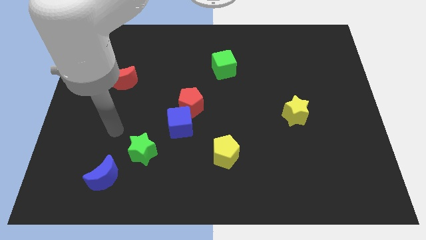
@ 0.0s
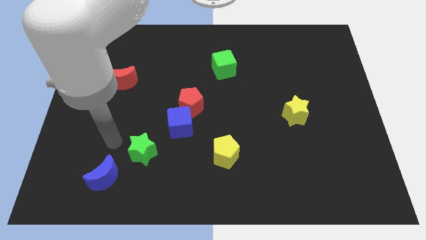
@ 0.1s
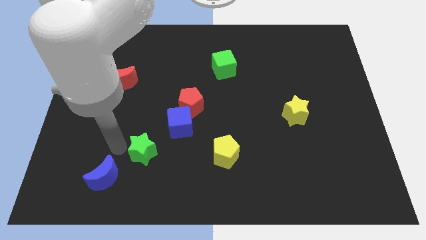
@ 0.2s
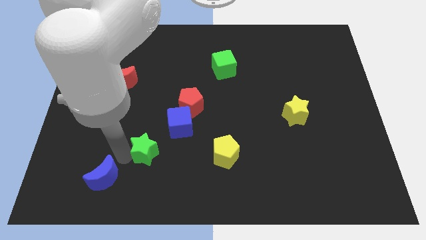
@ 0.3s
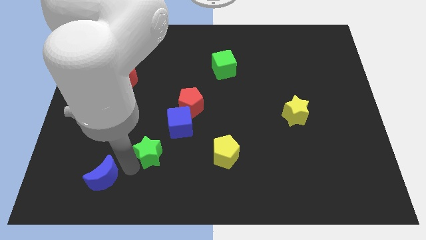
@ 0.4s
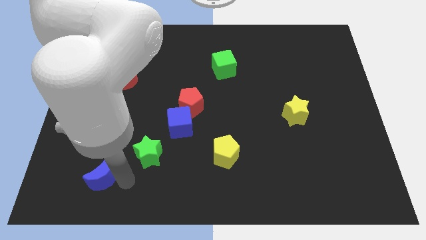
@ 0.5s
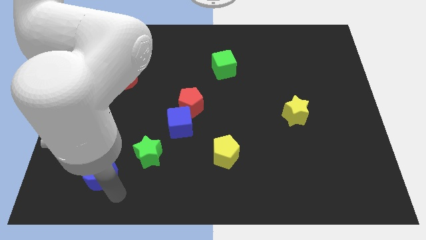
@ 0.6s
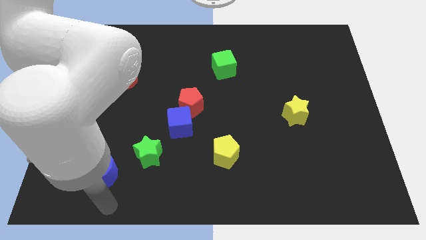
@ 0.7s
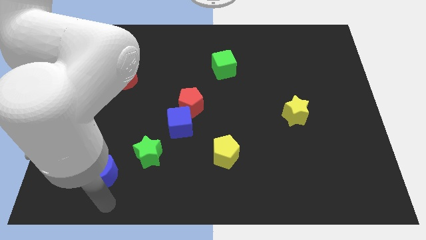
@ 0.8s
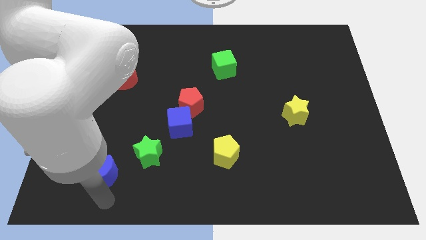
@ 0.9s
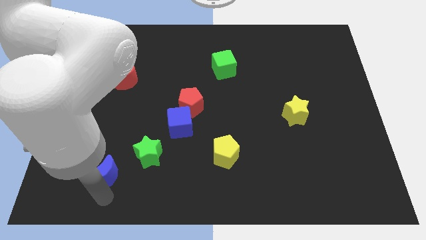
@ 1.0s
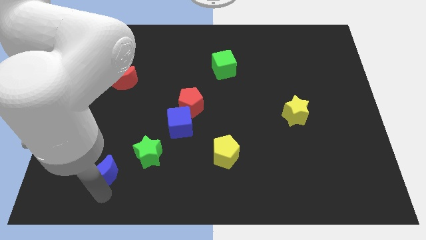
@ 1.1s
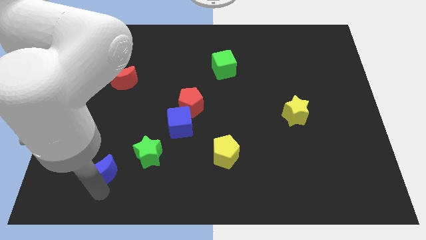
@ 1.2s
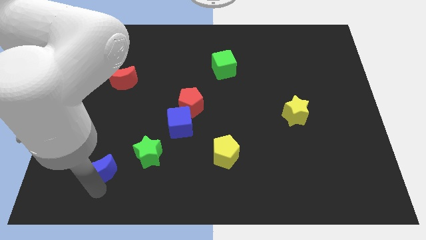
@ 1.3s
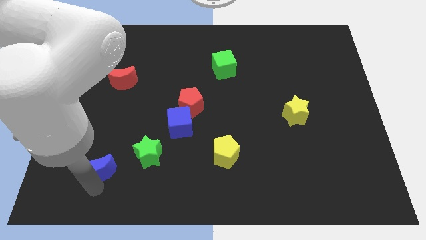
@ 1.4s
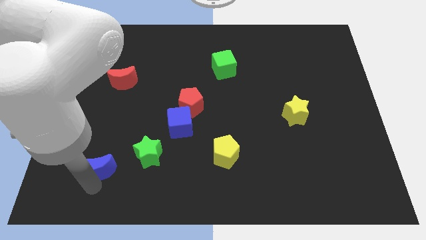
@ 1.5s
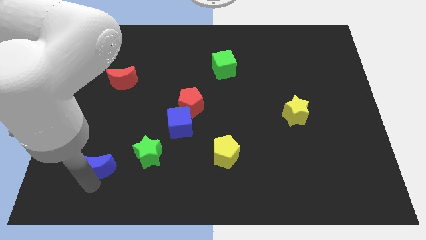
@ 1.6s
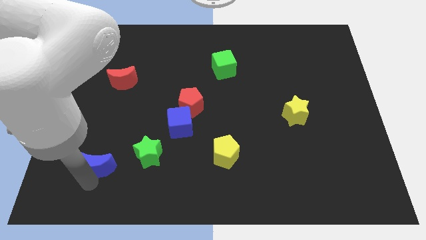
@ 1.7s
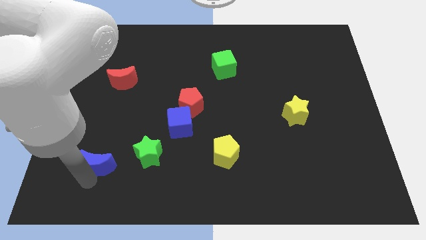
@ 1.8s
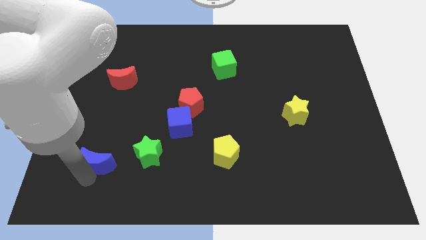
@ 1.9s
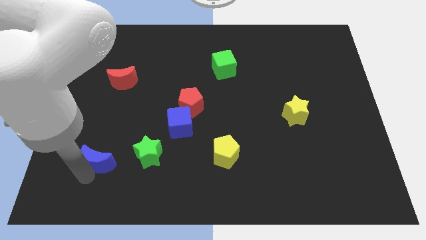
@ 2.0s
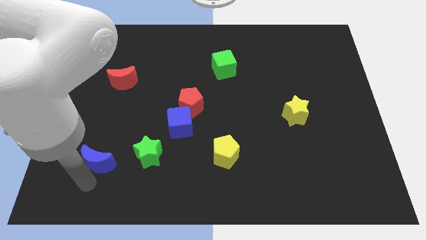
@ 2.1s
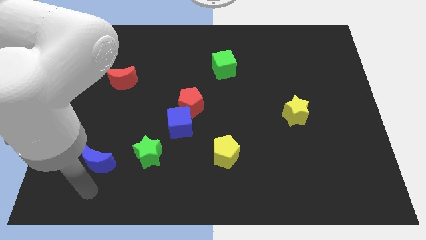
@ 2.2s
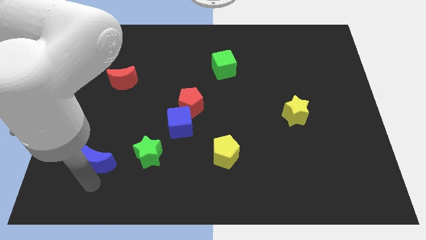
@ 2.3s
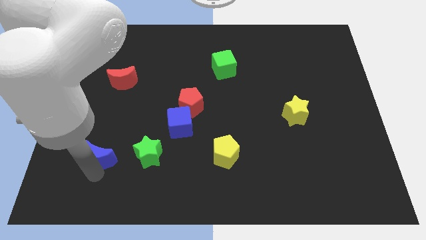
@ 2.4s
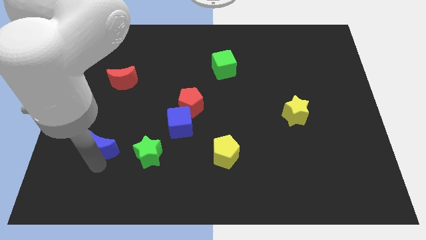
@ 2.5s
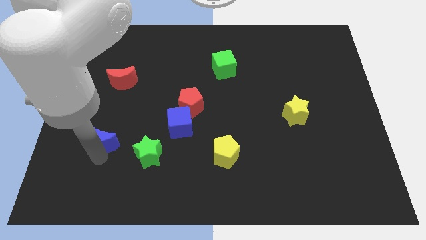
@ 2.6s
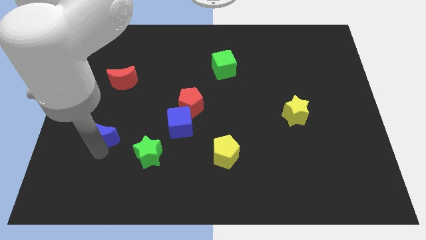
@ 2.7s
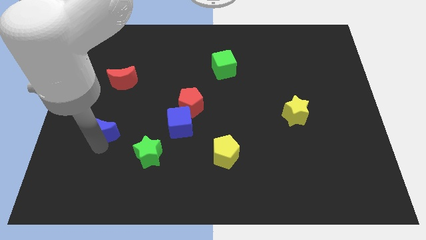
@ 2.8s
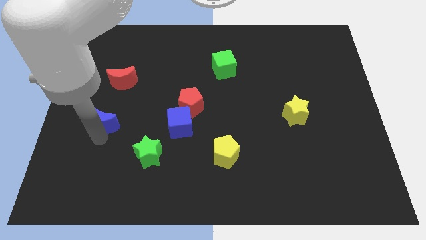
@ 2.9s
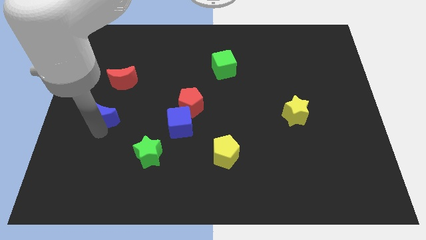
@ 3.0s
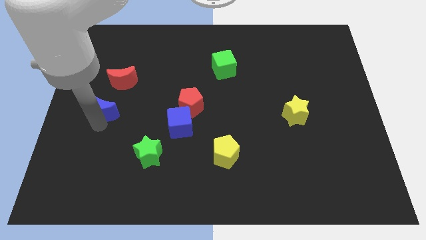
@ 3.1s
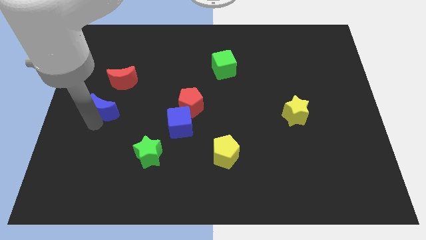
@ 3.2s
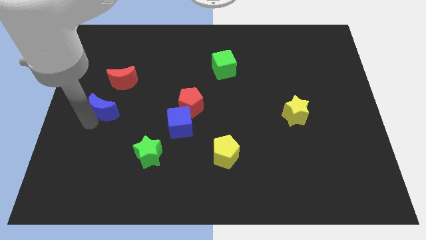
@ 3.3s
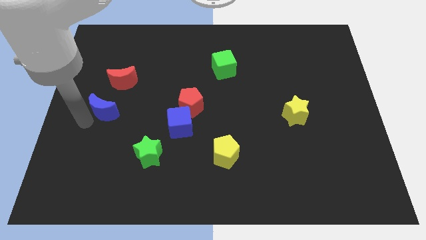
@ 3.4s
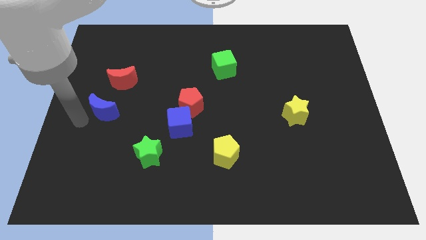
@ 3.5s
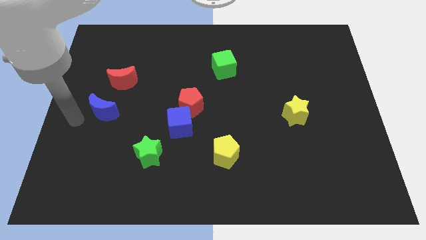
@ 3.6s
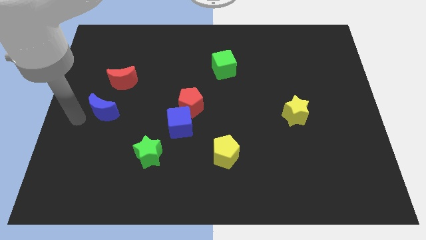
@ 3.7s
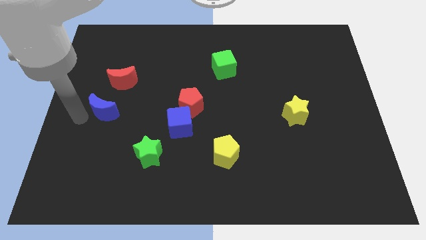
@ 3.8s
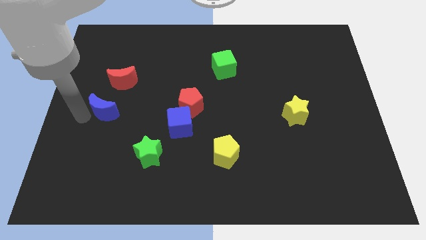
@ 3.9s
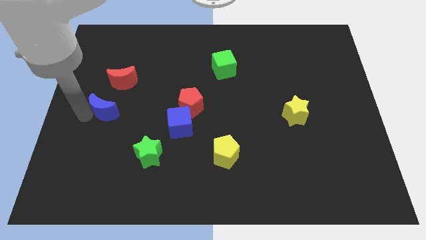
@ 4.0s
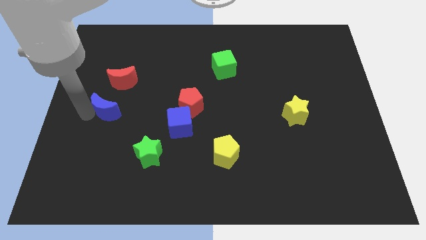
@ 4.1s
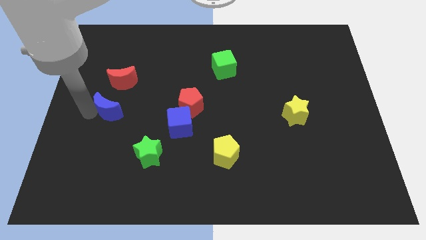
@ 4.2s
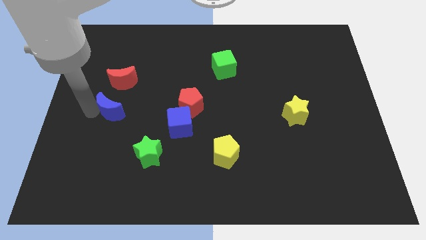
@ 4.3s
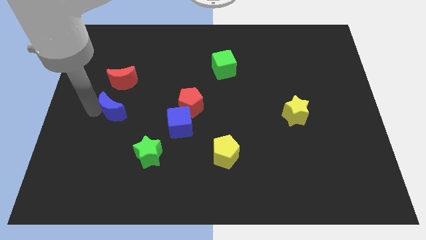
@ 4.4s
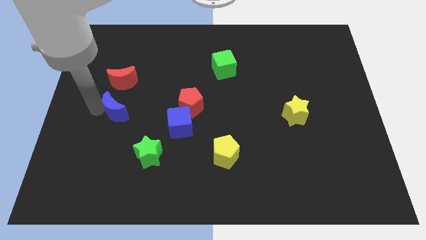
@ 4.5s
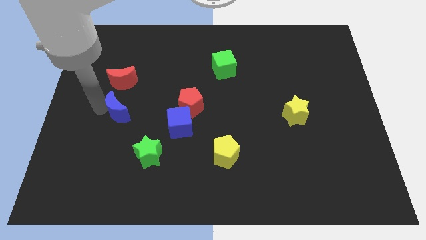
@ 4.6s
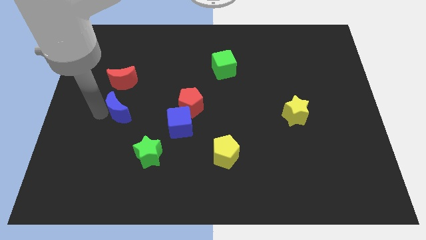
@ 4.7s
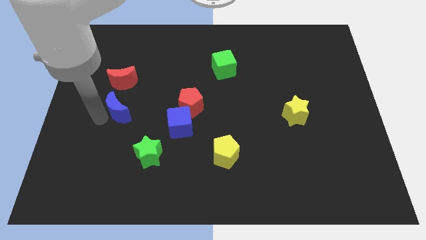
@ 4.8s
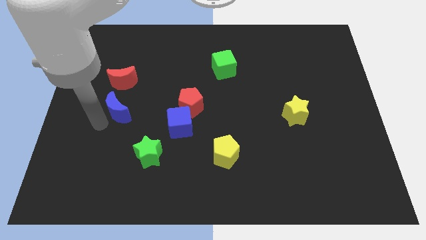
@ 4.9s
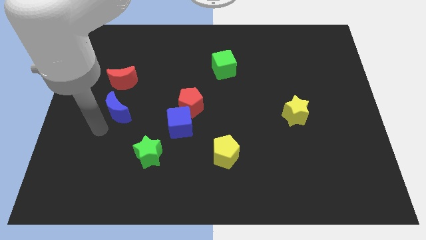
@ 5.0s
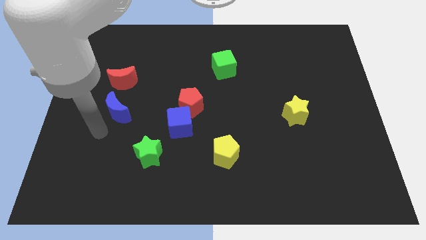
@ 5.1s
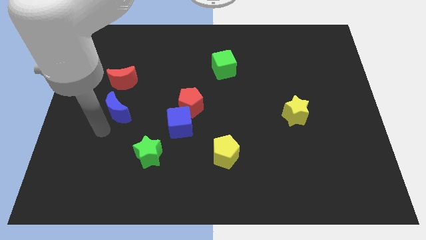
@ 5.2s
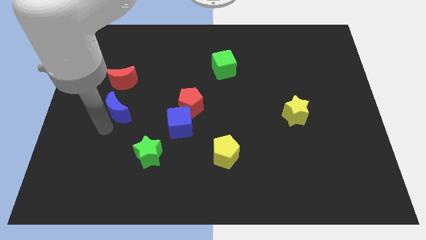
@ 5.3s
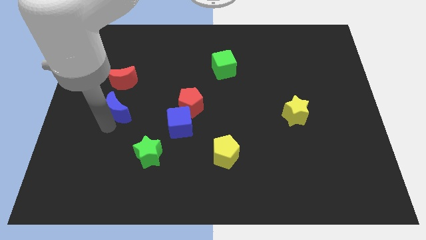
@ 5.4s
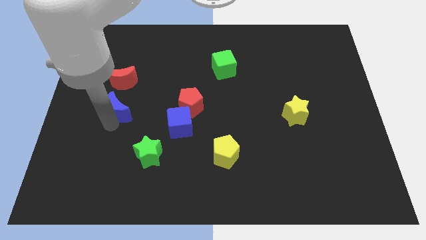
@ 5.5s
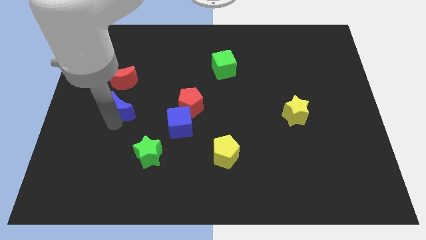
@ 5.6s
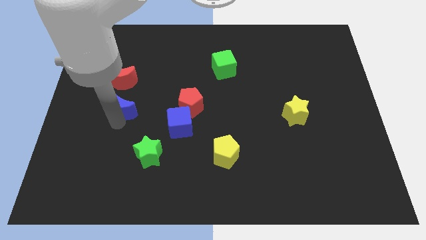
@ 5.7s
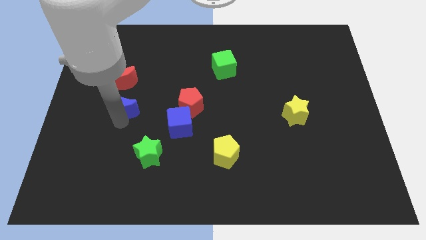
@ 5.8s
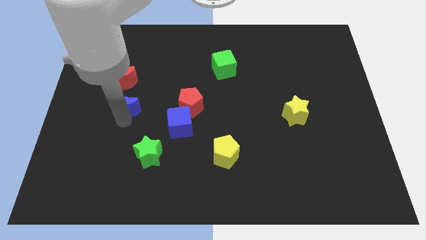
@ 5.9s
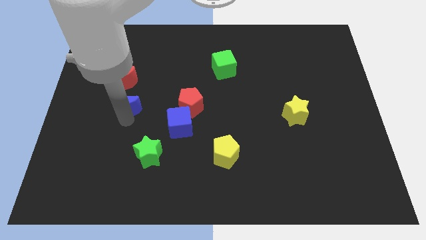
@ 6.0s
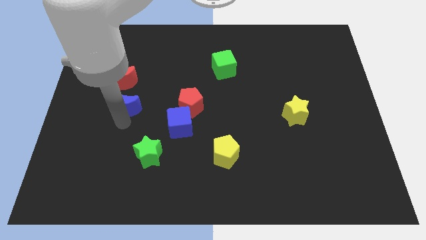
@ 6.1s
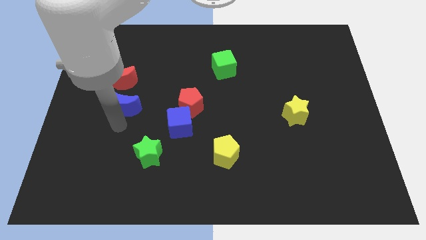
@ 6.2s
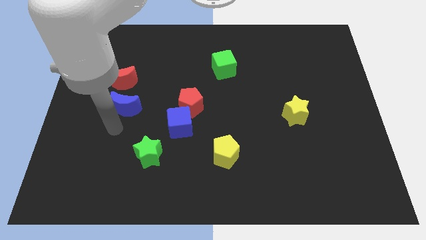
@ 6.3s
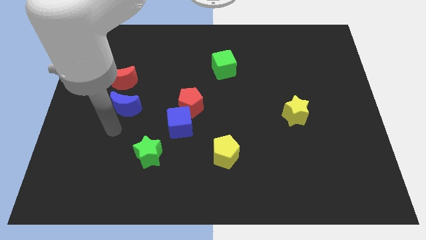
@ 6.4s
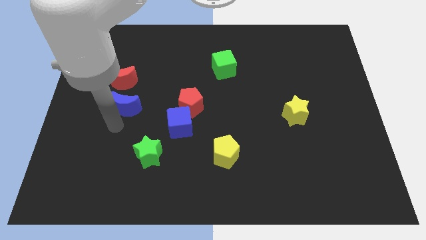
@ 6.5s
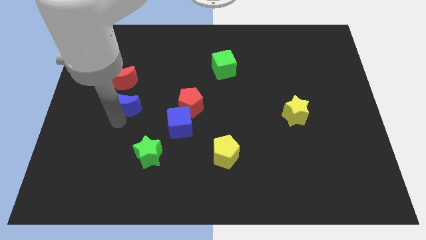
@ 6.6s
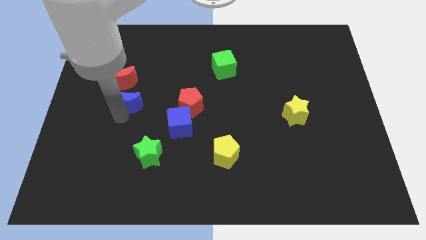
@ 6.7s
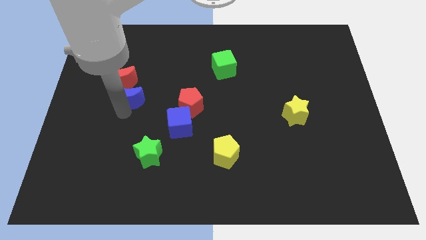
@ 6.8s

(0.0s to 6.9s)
slide the blue moon up

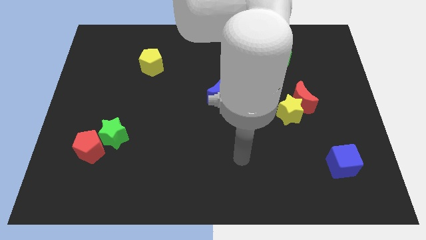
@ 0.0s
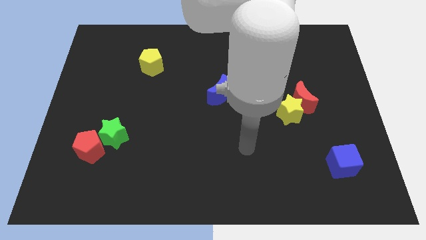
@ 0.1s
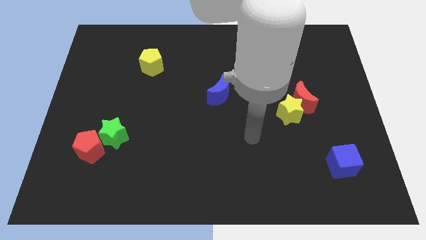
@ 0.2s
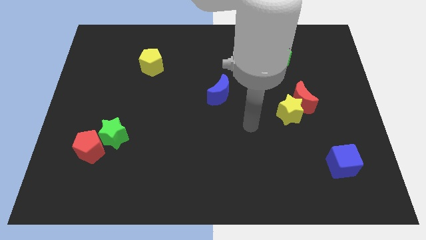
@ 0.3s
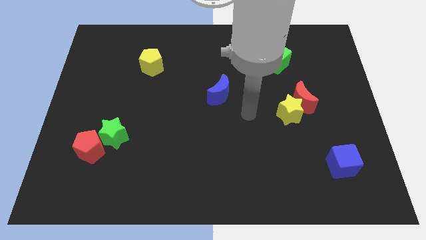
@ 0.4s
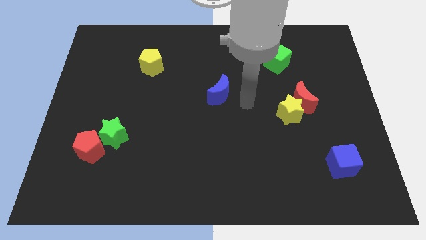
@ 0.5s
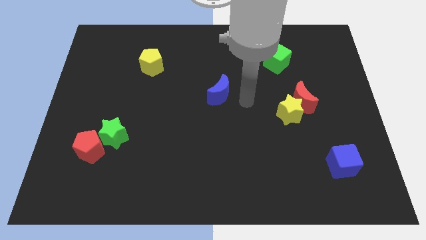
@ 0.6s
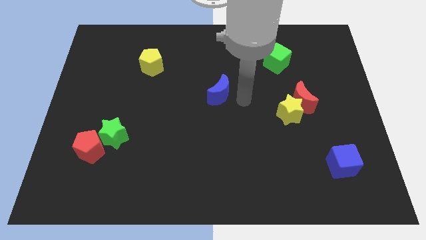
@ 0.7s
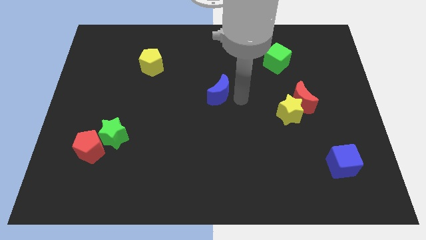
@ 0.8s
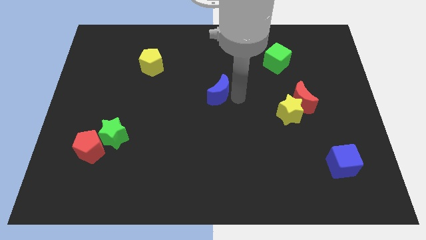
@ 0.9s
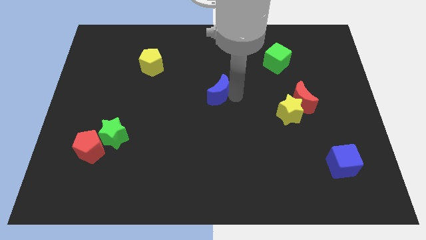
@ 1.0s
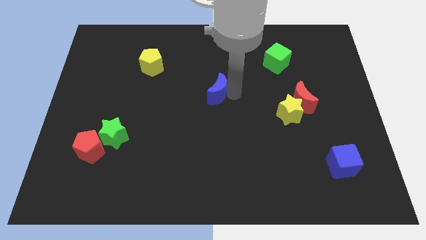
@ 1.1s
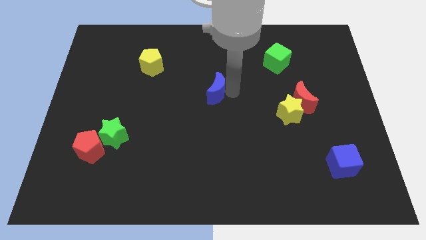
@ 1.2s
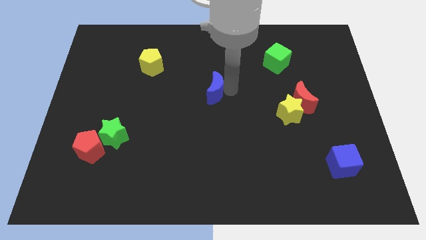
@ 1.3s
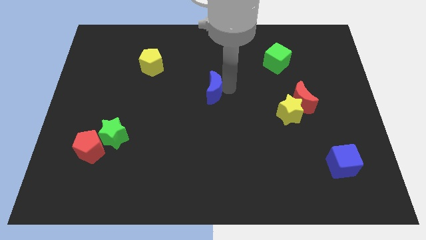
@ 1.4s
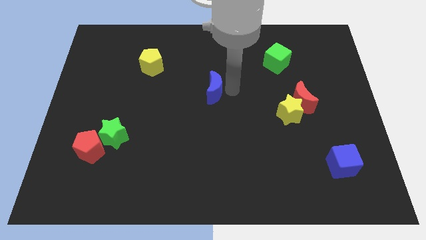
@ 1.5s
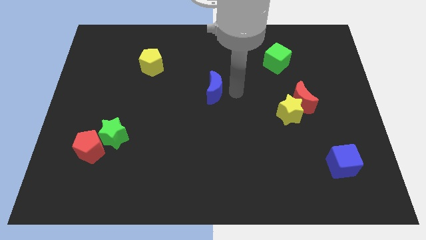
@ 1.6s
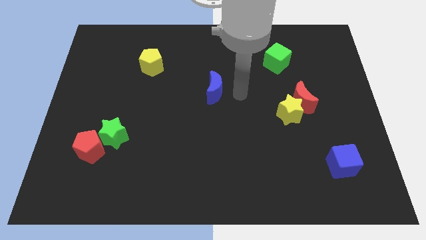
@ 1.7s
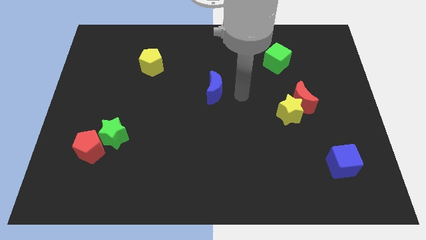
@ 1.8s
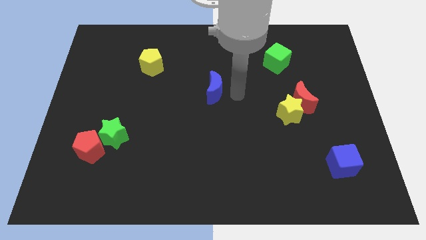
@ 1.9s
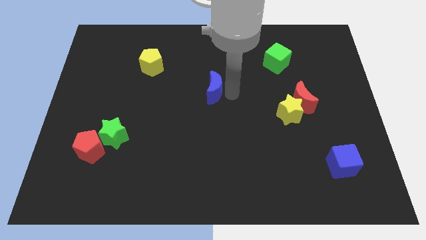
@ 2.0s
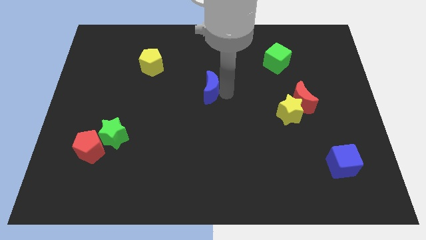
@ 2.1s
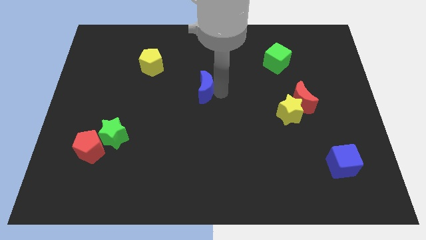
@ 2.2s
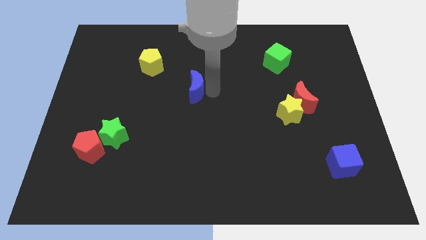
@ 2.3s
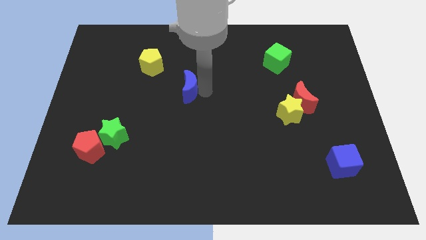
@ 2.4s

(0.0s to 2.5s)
slightly move the blue moon left
